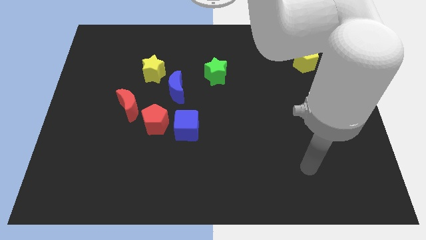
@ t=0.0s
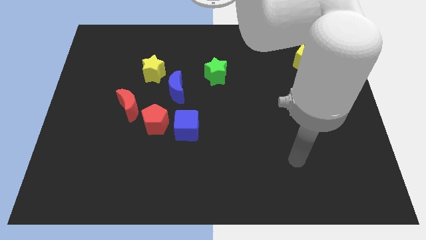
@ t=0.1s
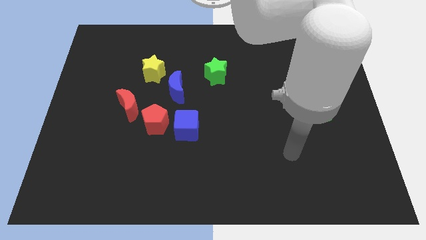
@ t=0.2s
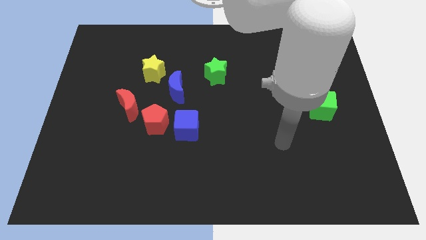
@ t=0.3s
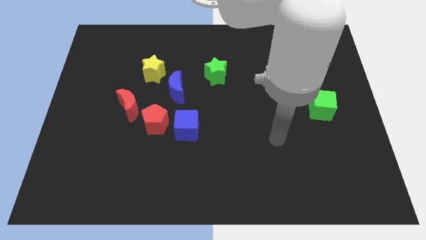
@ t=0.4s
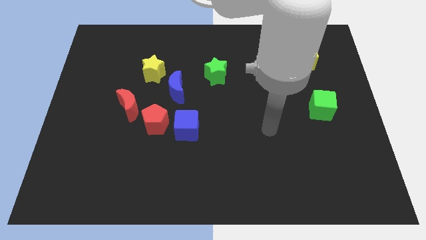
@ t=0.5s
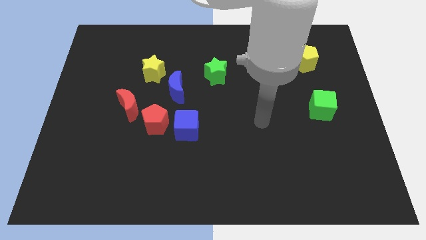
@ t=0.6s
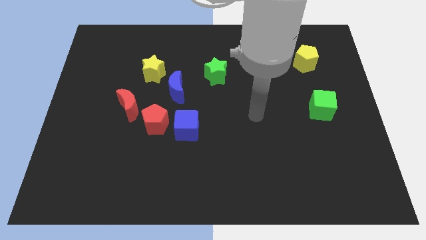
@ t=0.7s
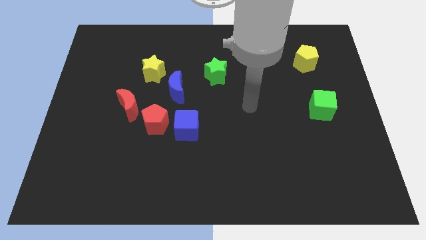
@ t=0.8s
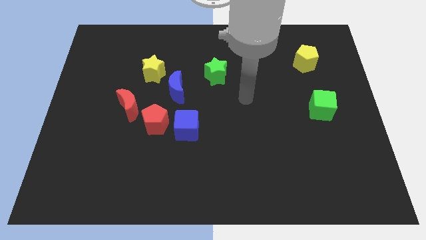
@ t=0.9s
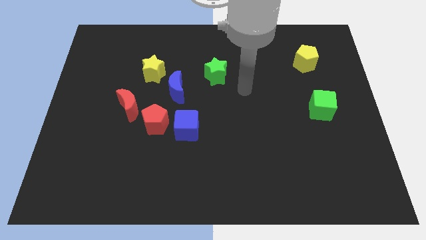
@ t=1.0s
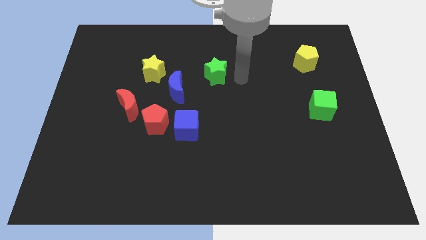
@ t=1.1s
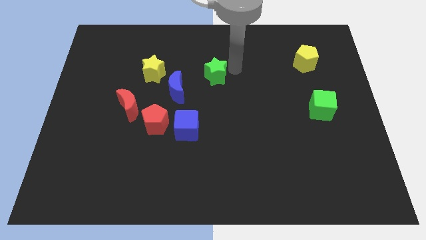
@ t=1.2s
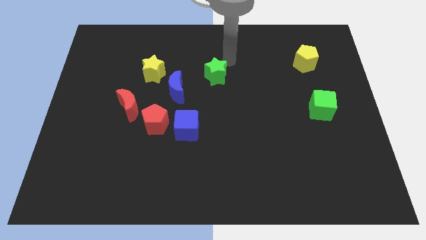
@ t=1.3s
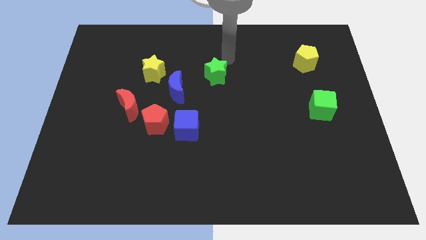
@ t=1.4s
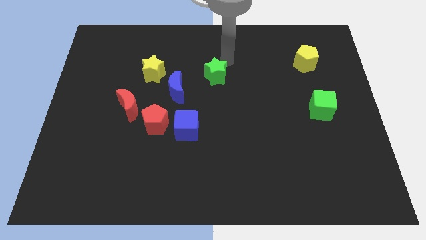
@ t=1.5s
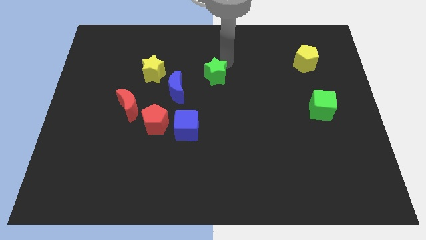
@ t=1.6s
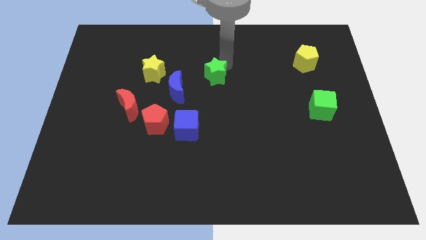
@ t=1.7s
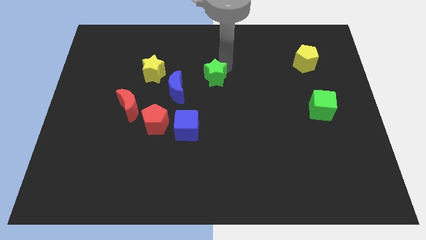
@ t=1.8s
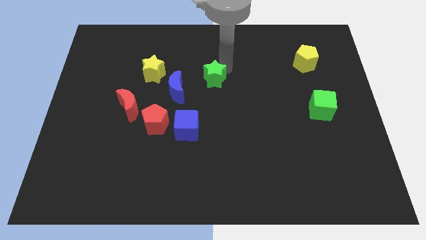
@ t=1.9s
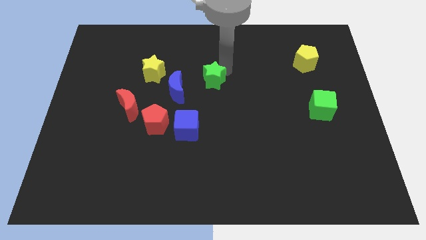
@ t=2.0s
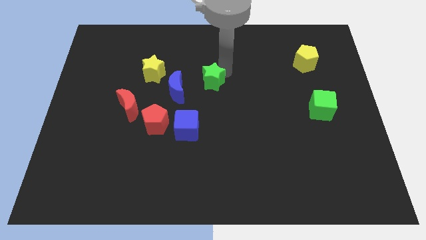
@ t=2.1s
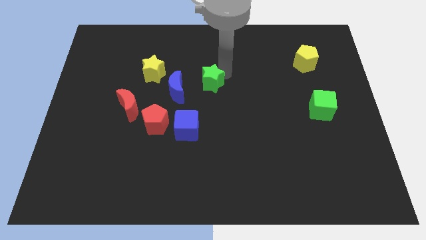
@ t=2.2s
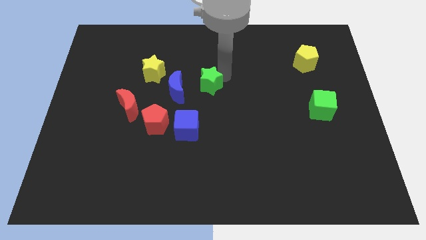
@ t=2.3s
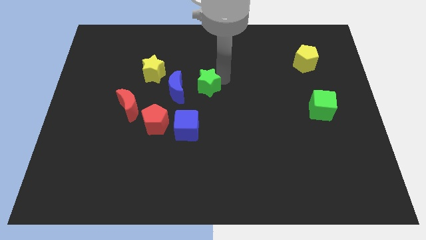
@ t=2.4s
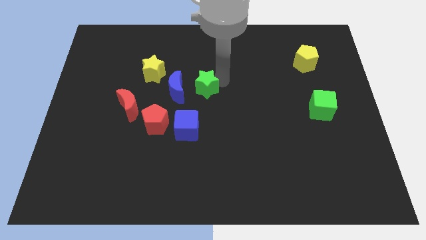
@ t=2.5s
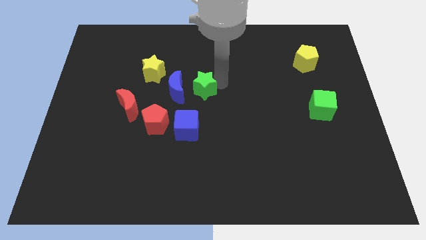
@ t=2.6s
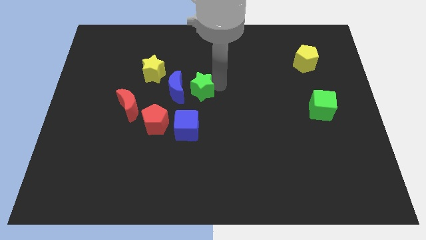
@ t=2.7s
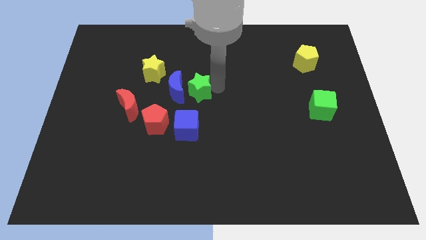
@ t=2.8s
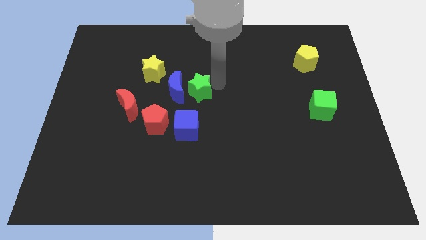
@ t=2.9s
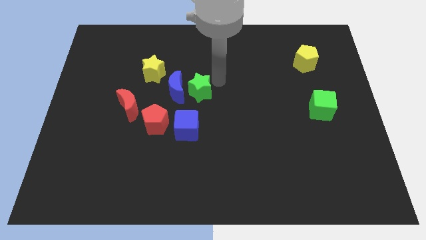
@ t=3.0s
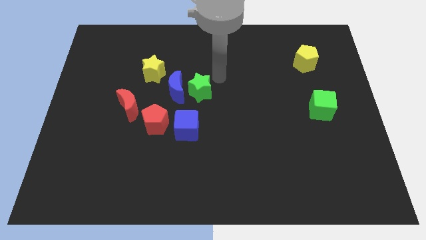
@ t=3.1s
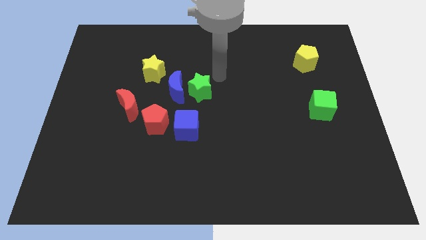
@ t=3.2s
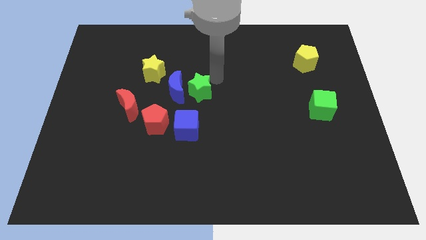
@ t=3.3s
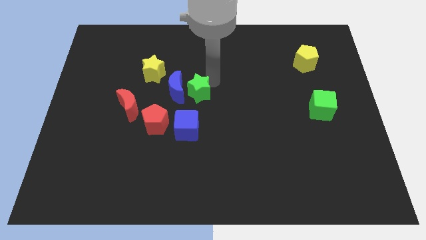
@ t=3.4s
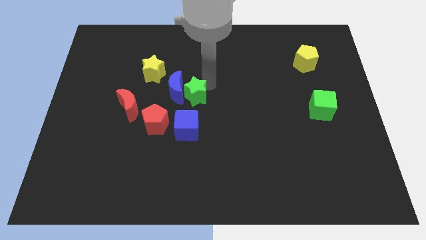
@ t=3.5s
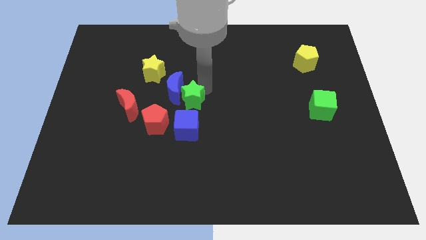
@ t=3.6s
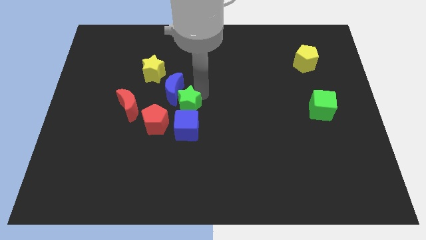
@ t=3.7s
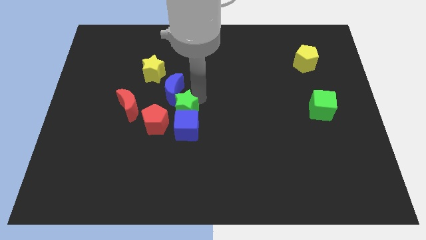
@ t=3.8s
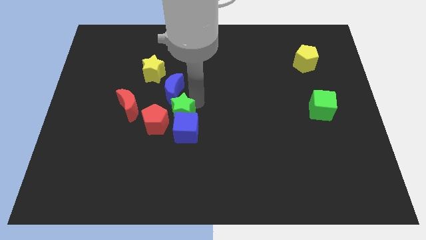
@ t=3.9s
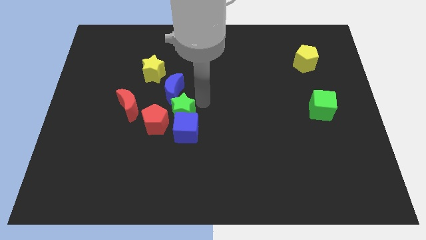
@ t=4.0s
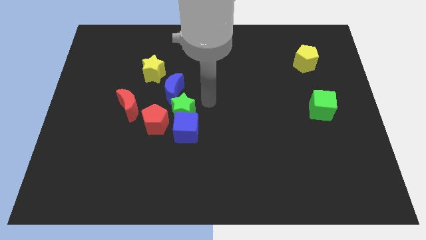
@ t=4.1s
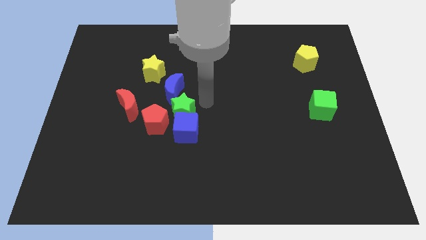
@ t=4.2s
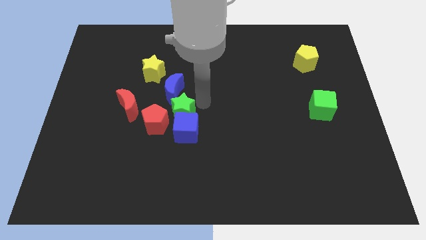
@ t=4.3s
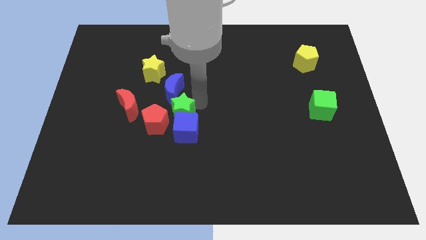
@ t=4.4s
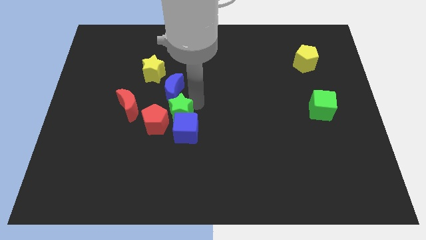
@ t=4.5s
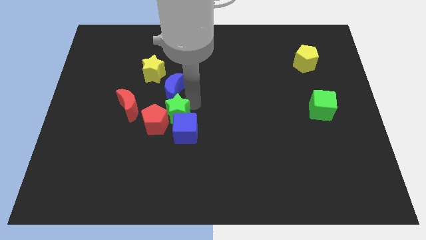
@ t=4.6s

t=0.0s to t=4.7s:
slide the green star close to the red pentagon

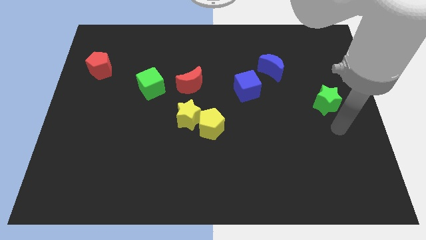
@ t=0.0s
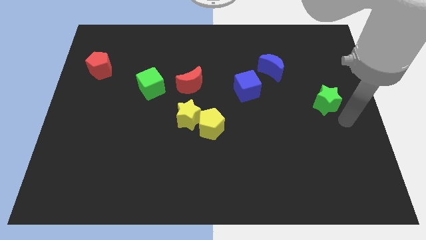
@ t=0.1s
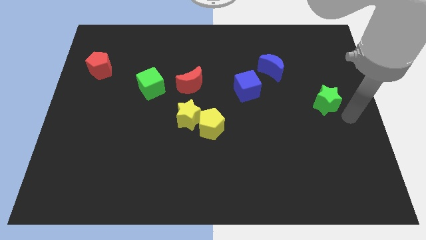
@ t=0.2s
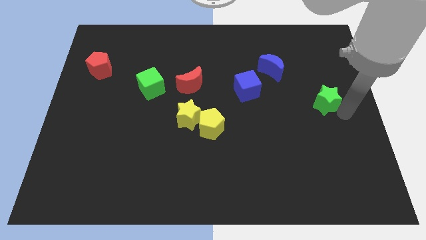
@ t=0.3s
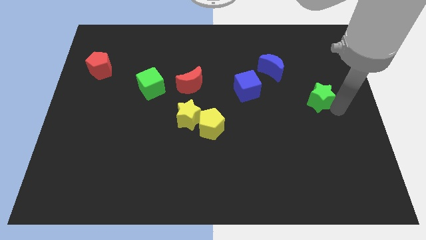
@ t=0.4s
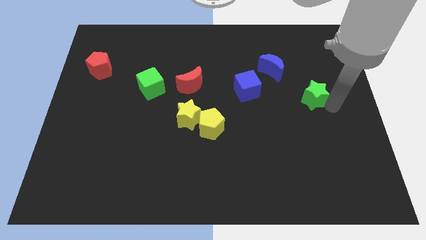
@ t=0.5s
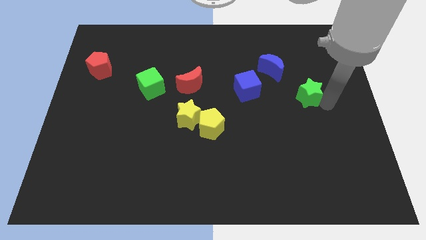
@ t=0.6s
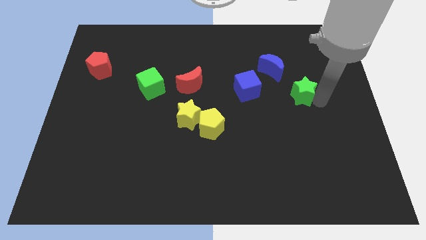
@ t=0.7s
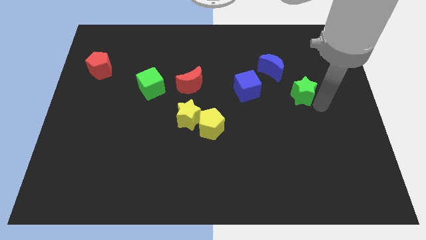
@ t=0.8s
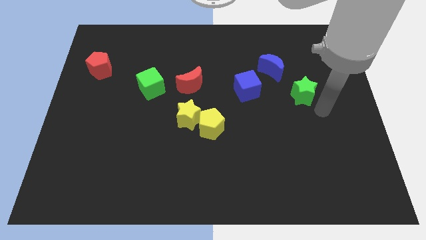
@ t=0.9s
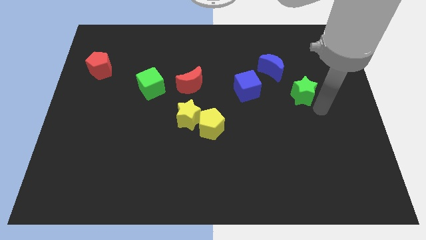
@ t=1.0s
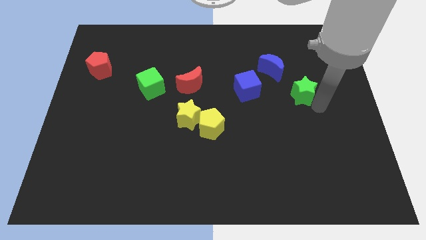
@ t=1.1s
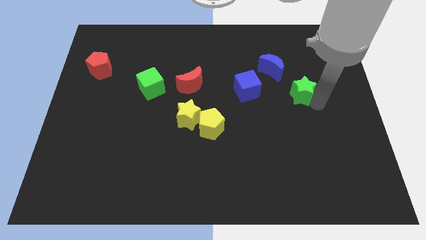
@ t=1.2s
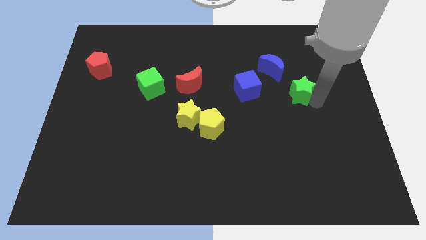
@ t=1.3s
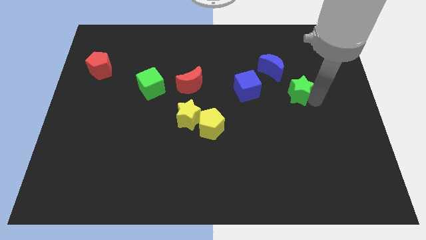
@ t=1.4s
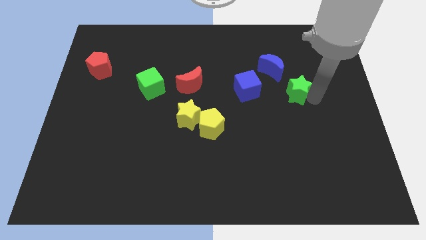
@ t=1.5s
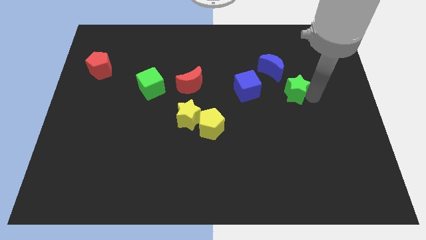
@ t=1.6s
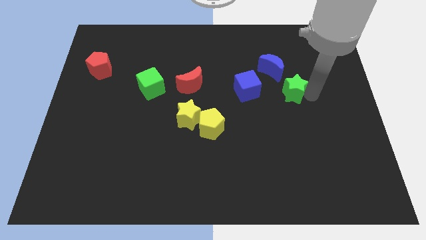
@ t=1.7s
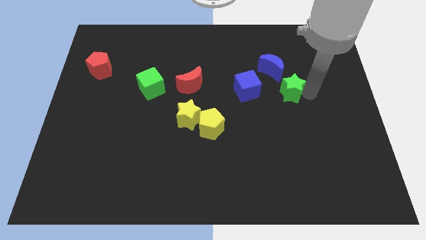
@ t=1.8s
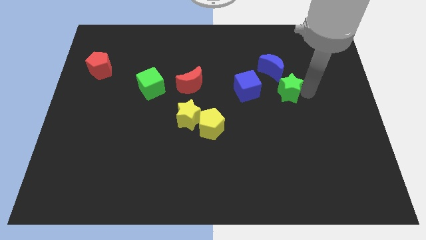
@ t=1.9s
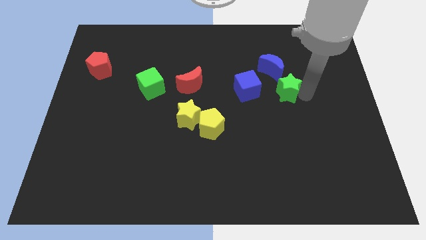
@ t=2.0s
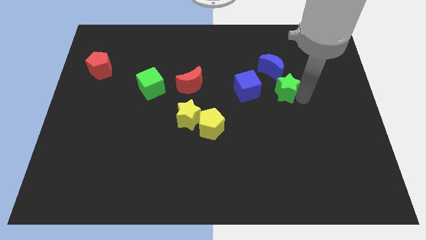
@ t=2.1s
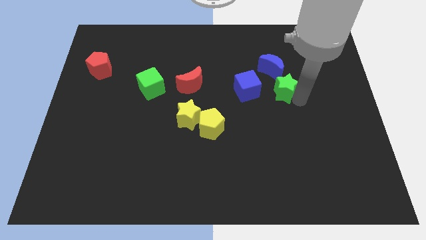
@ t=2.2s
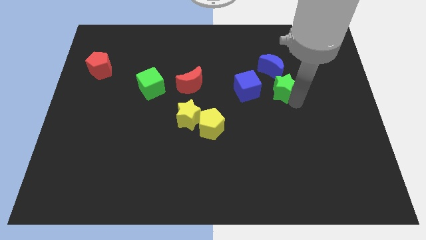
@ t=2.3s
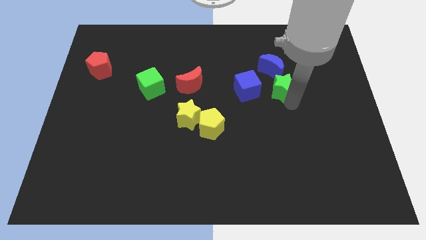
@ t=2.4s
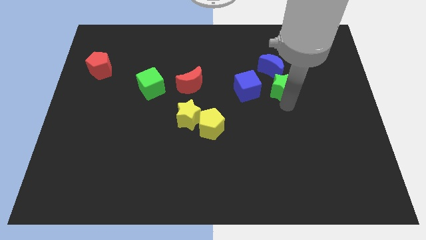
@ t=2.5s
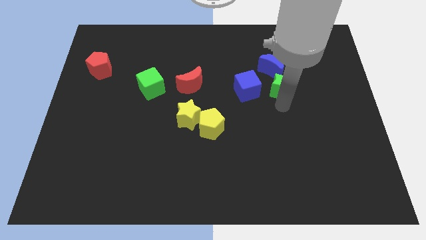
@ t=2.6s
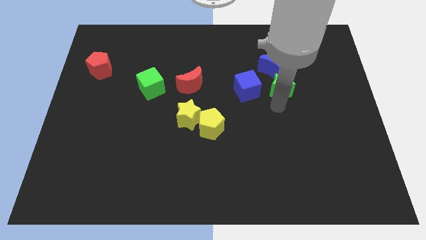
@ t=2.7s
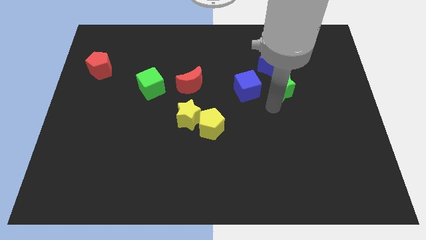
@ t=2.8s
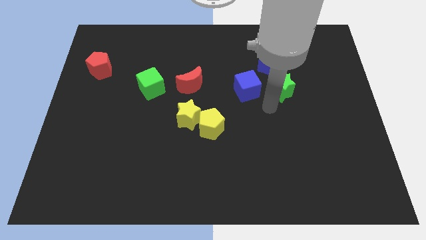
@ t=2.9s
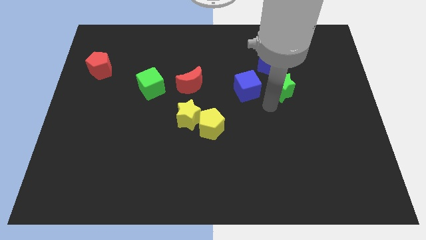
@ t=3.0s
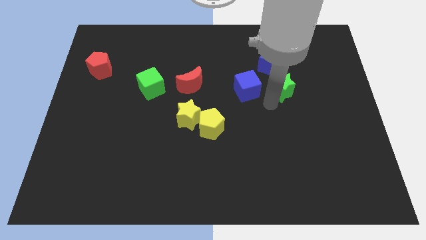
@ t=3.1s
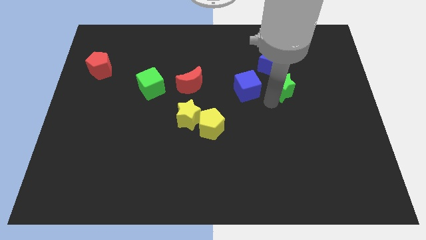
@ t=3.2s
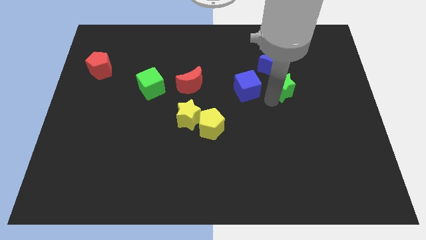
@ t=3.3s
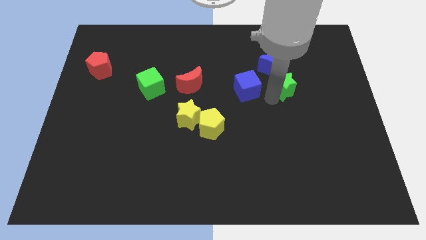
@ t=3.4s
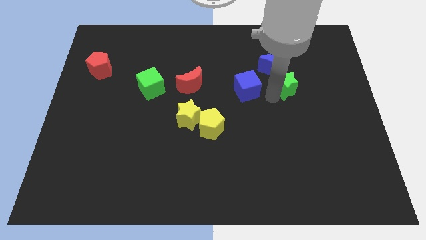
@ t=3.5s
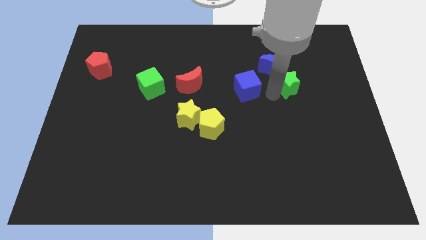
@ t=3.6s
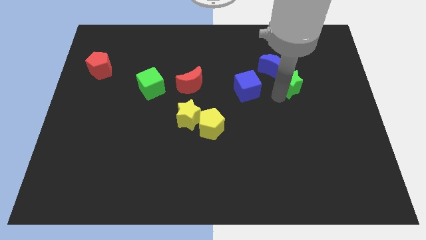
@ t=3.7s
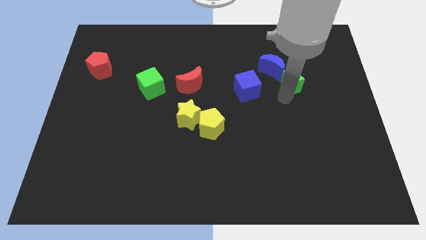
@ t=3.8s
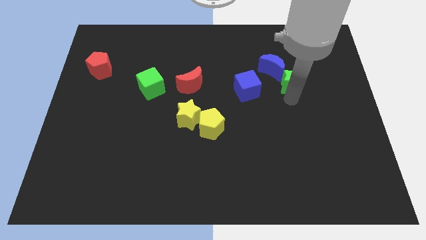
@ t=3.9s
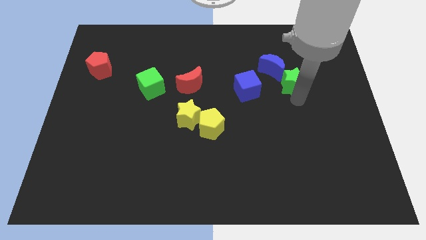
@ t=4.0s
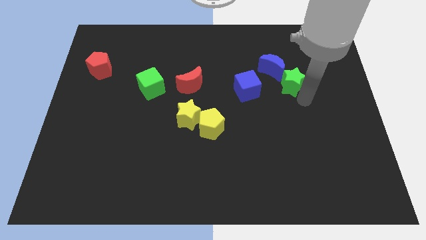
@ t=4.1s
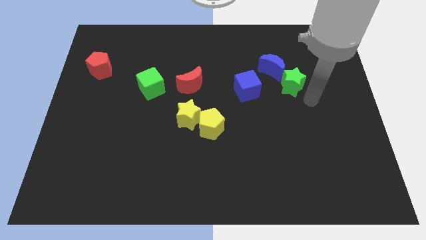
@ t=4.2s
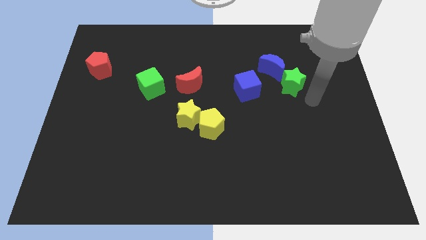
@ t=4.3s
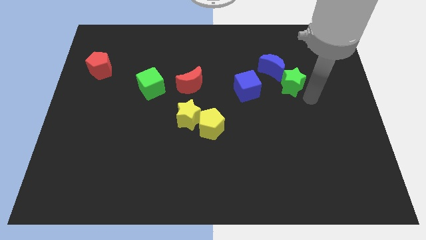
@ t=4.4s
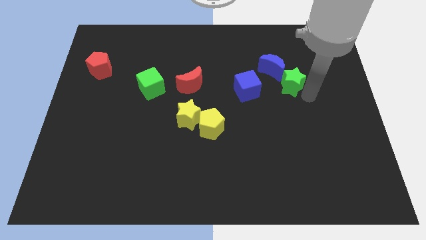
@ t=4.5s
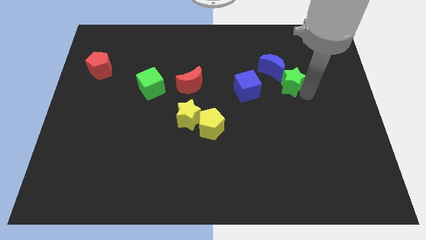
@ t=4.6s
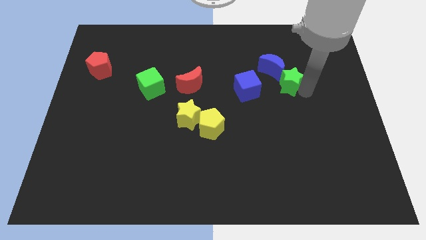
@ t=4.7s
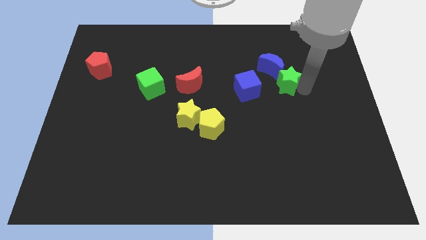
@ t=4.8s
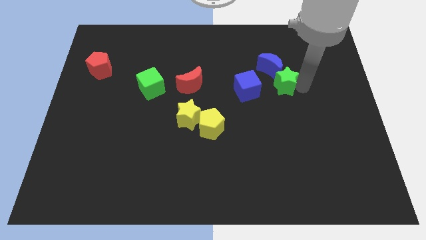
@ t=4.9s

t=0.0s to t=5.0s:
push the green star next to the blue moon
